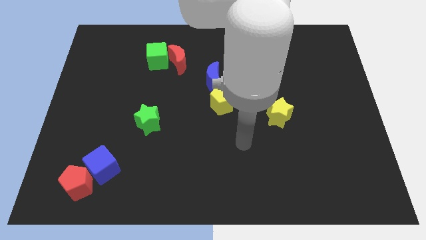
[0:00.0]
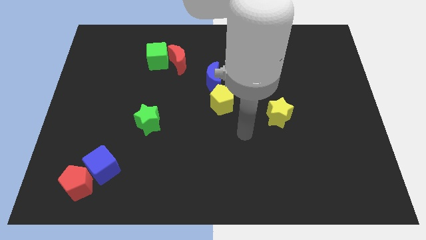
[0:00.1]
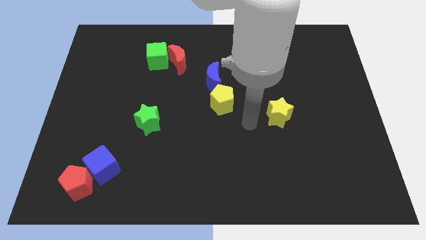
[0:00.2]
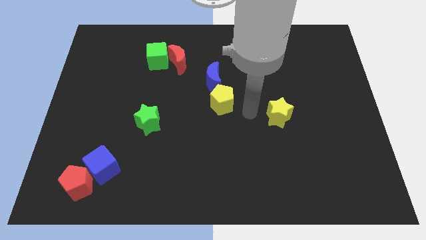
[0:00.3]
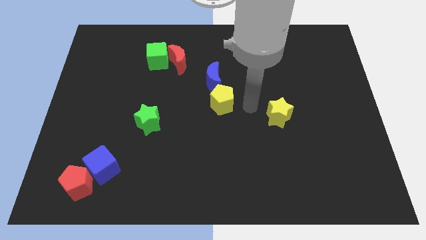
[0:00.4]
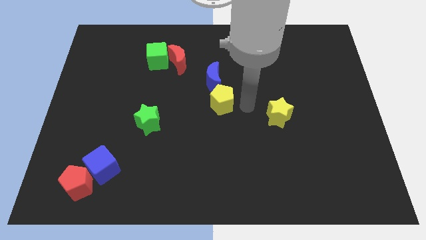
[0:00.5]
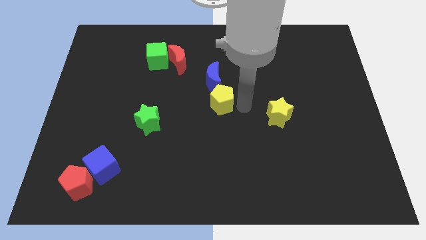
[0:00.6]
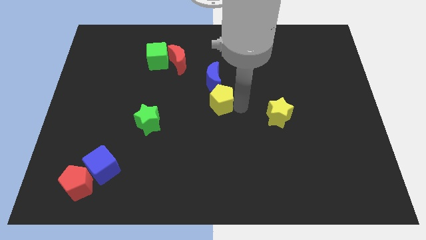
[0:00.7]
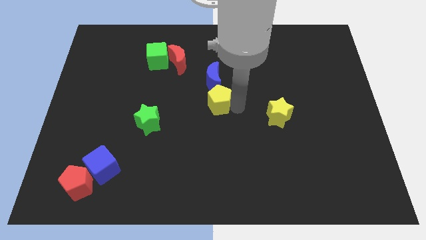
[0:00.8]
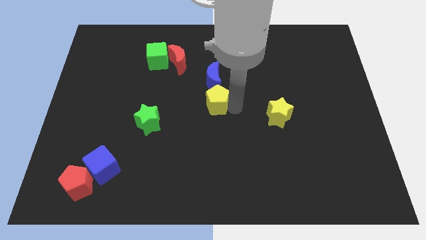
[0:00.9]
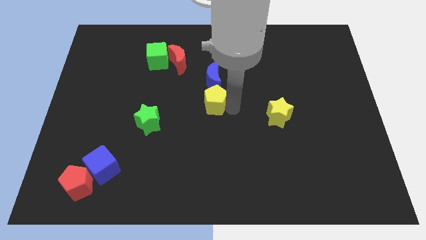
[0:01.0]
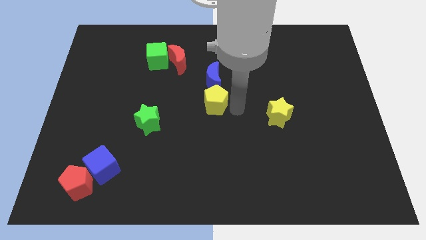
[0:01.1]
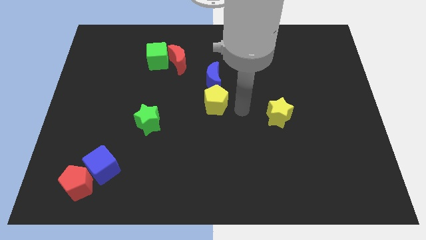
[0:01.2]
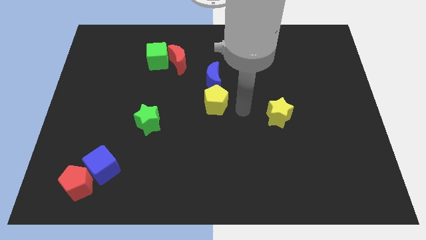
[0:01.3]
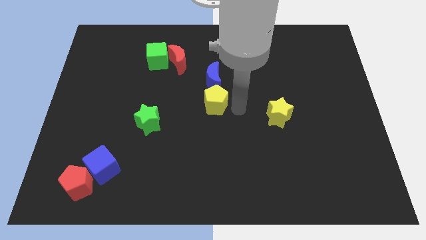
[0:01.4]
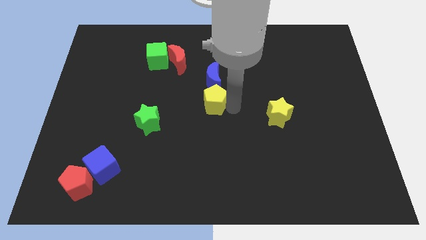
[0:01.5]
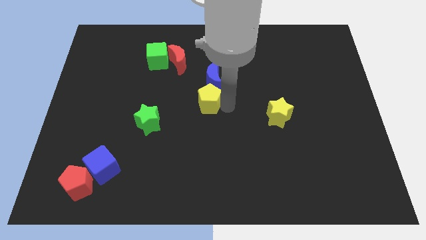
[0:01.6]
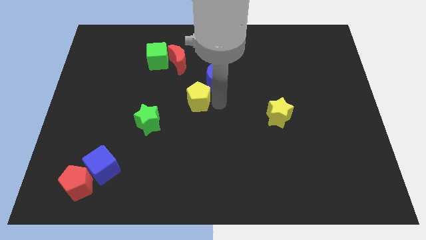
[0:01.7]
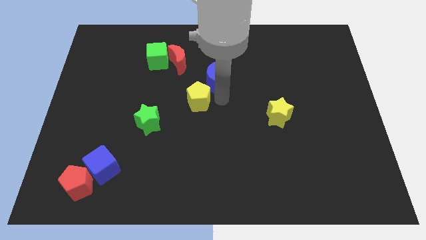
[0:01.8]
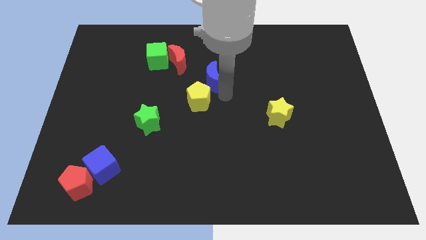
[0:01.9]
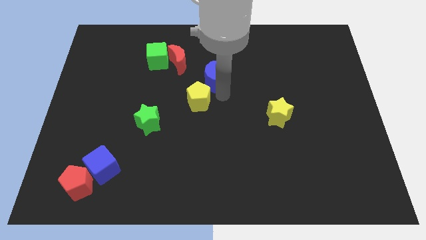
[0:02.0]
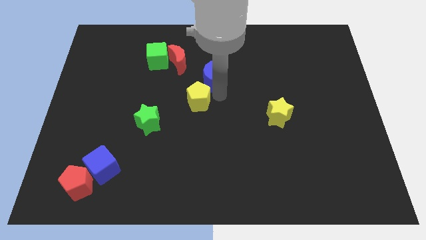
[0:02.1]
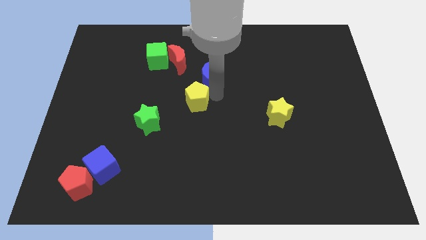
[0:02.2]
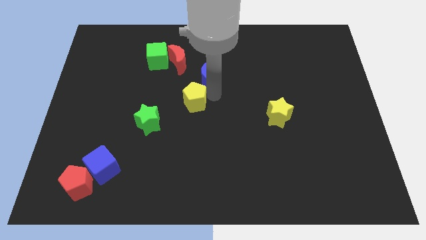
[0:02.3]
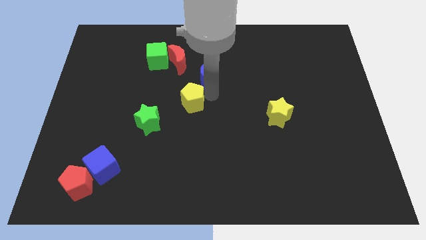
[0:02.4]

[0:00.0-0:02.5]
push the yellow pentagon somewhat left

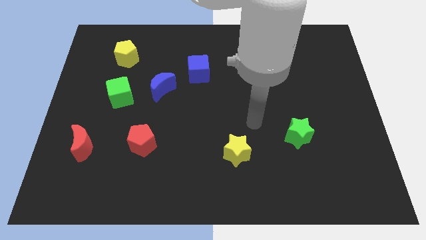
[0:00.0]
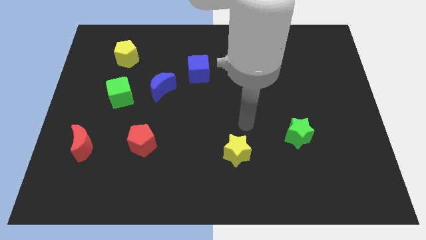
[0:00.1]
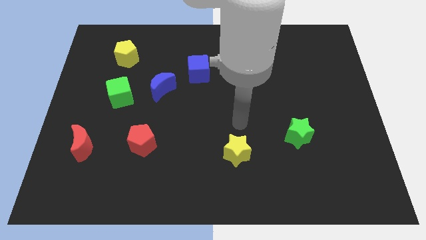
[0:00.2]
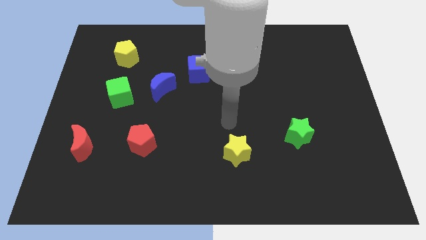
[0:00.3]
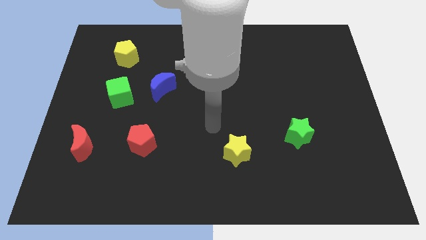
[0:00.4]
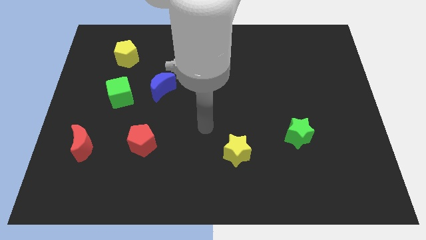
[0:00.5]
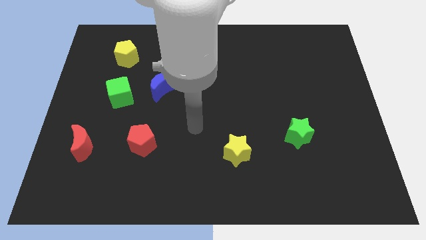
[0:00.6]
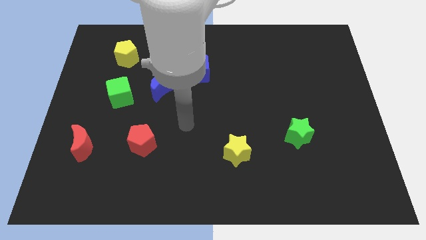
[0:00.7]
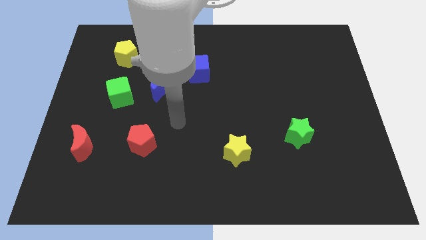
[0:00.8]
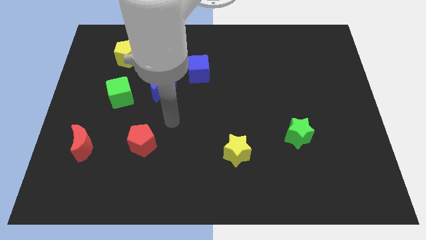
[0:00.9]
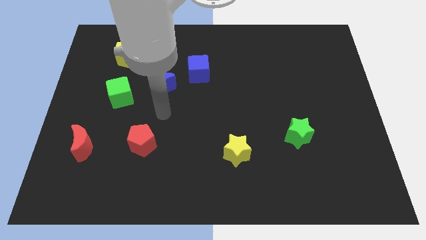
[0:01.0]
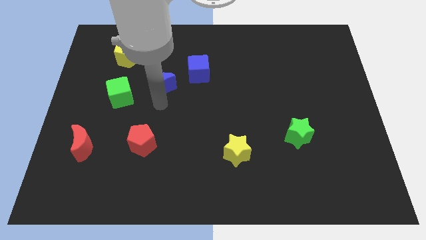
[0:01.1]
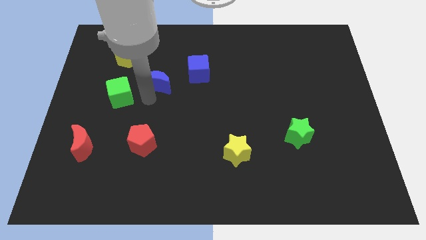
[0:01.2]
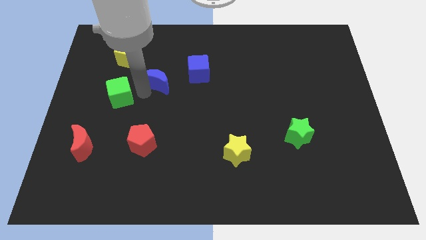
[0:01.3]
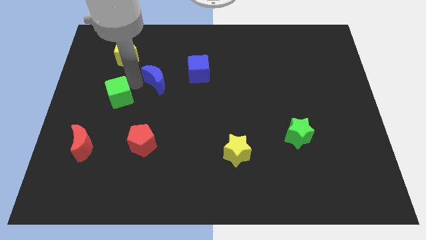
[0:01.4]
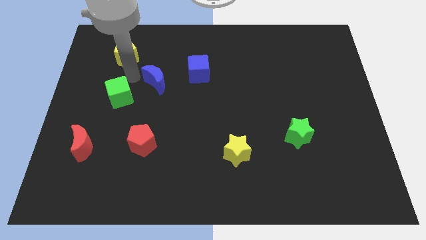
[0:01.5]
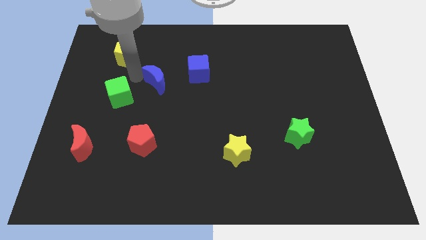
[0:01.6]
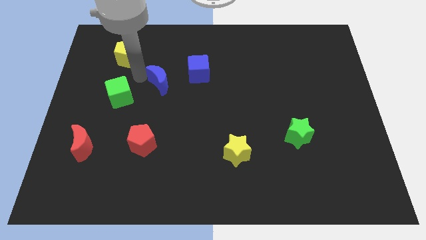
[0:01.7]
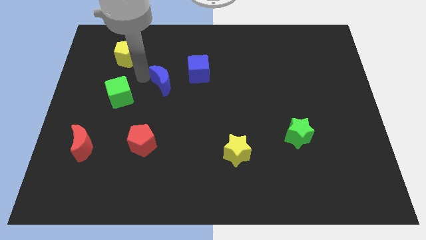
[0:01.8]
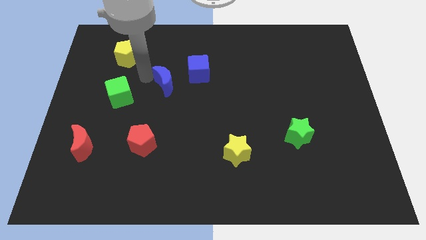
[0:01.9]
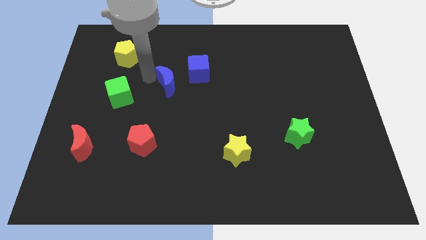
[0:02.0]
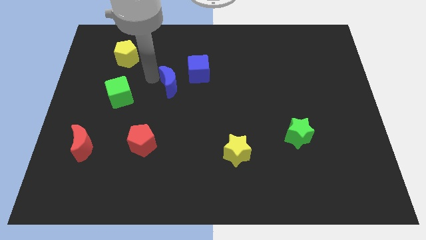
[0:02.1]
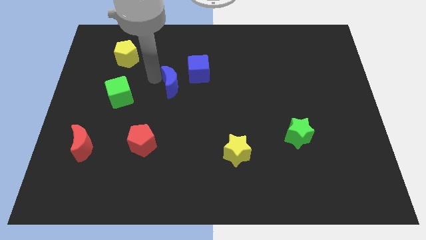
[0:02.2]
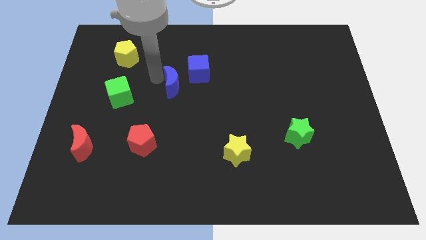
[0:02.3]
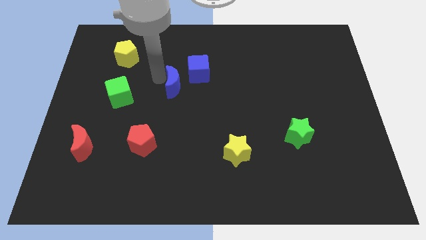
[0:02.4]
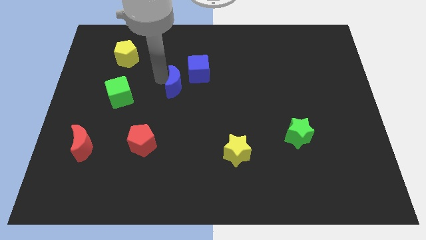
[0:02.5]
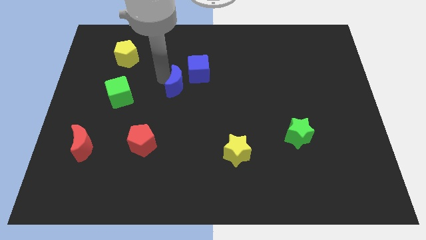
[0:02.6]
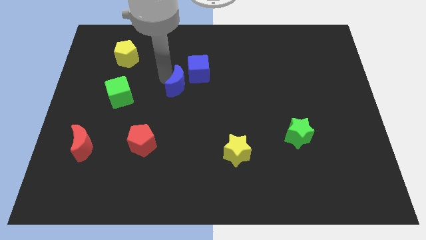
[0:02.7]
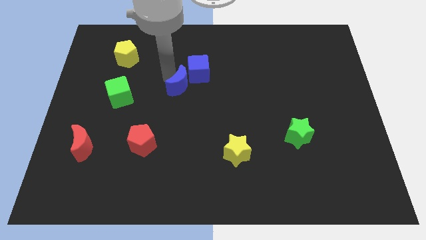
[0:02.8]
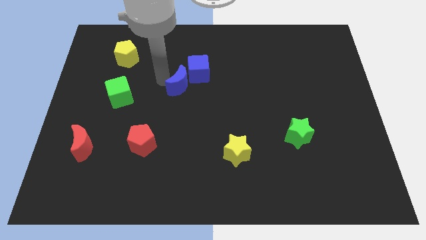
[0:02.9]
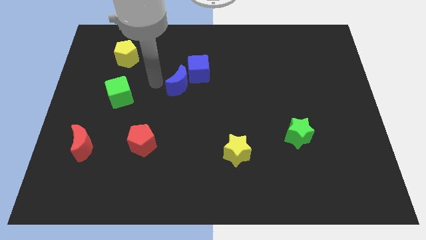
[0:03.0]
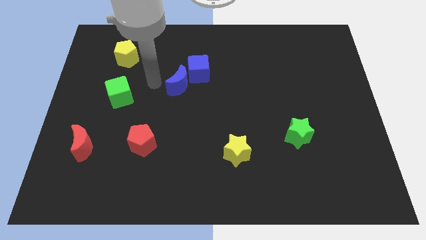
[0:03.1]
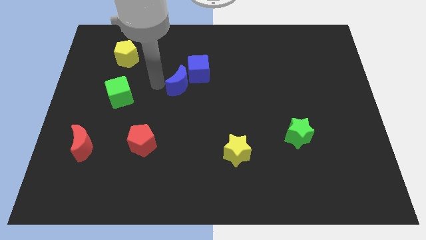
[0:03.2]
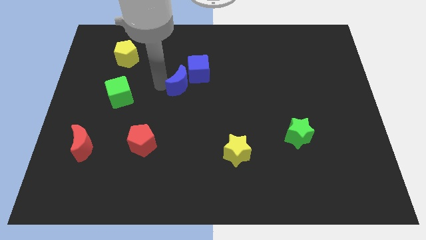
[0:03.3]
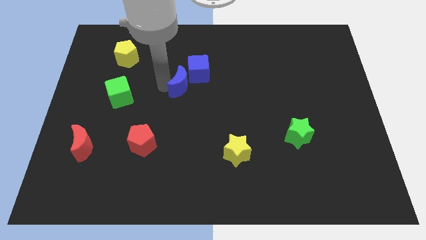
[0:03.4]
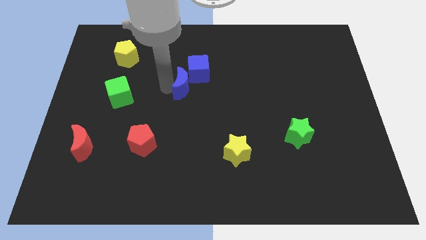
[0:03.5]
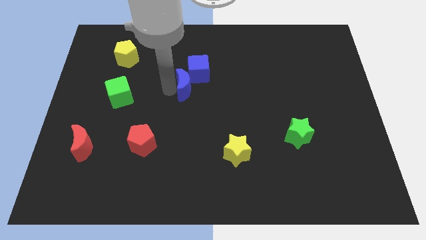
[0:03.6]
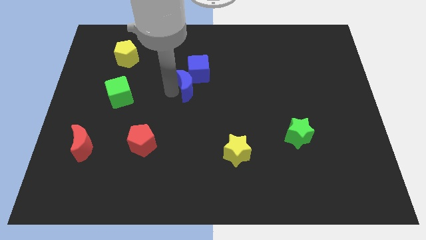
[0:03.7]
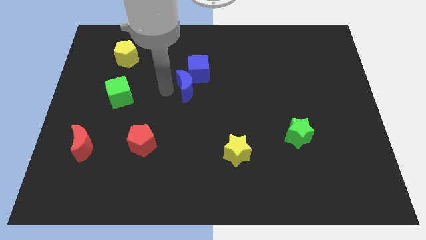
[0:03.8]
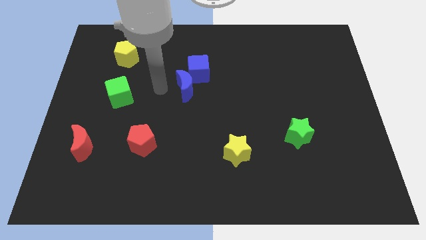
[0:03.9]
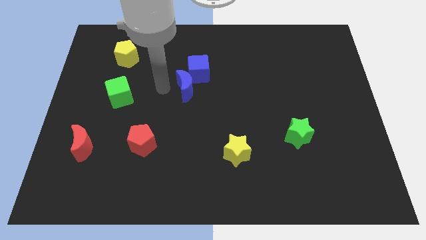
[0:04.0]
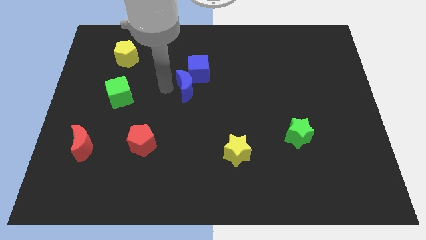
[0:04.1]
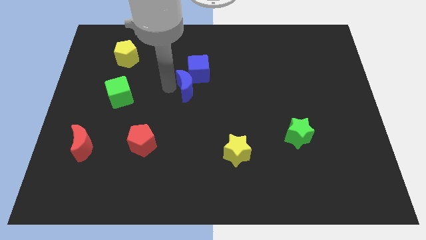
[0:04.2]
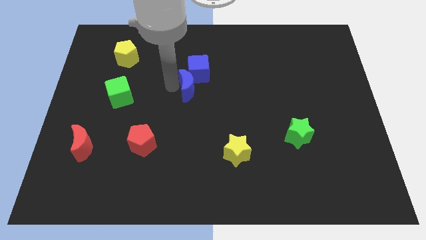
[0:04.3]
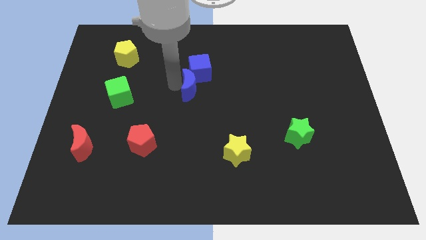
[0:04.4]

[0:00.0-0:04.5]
slightly move the blue moon right

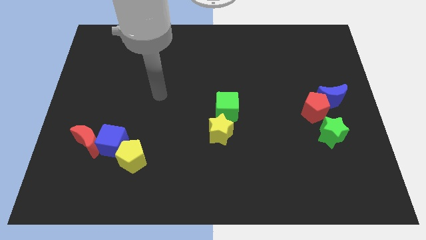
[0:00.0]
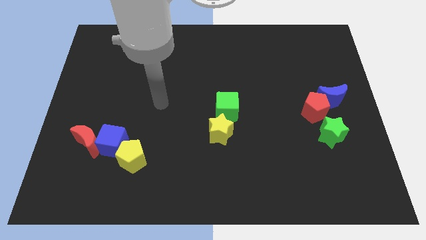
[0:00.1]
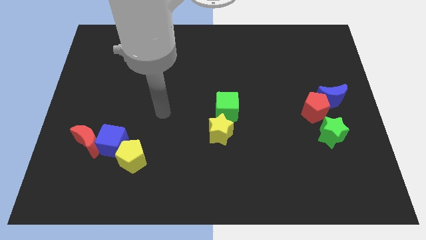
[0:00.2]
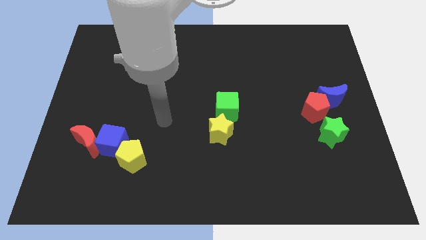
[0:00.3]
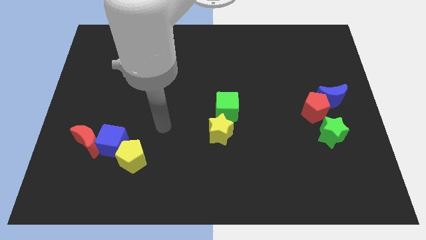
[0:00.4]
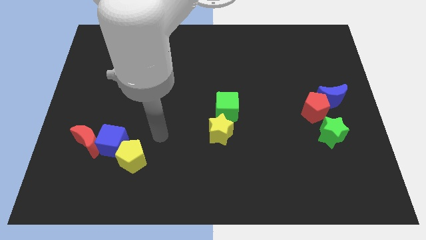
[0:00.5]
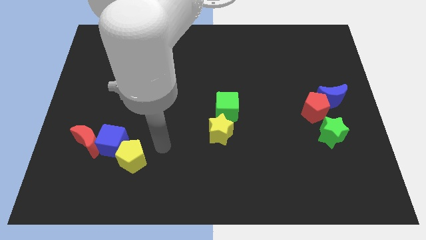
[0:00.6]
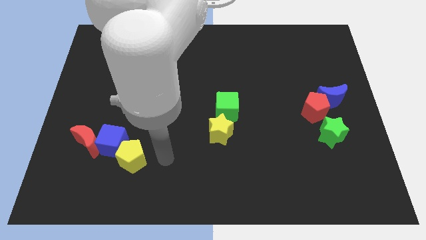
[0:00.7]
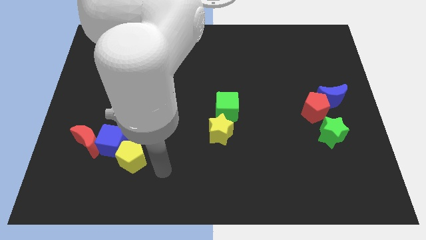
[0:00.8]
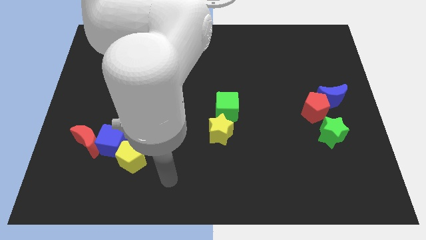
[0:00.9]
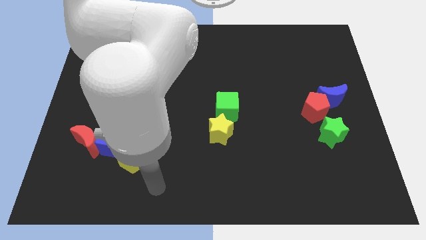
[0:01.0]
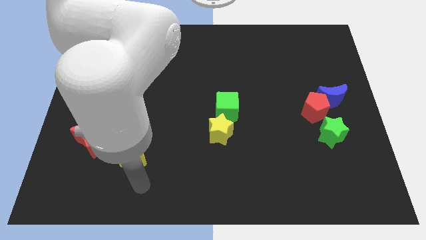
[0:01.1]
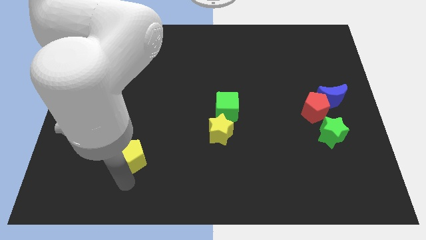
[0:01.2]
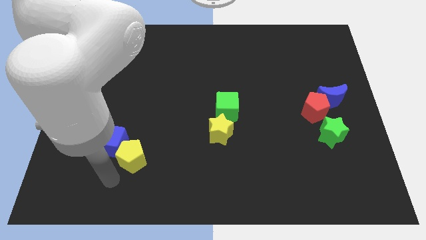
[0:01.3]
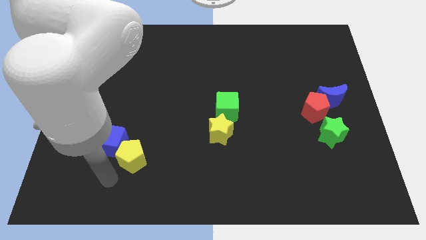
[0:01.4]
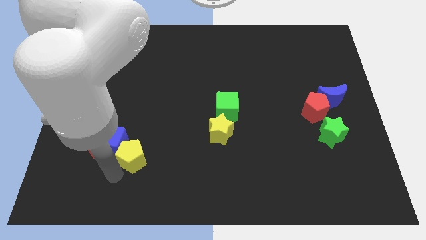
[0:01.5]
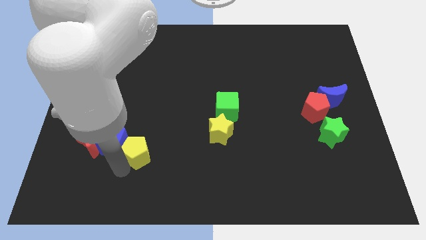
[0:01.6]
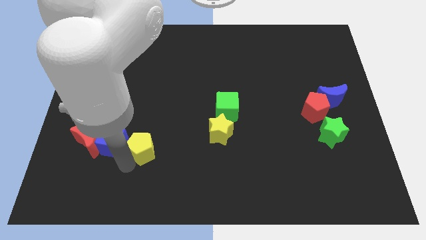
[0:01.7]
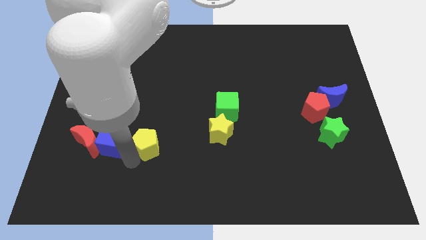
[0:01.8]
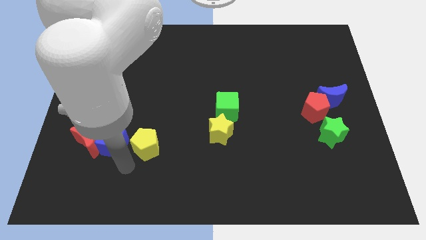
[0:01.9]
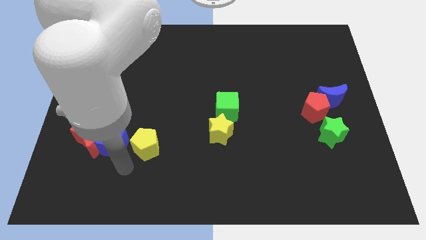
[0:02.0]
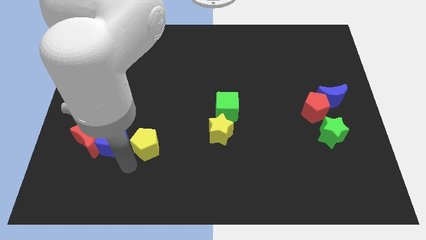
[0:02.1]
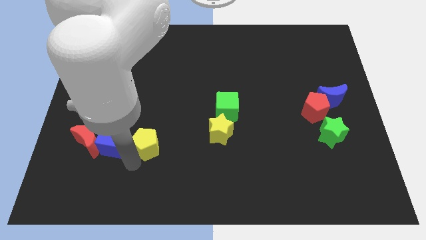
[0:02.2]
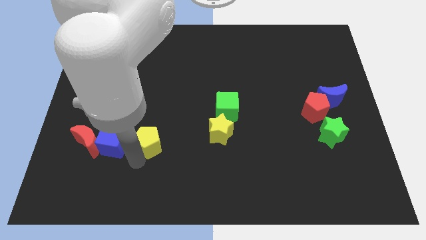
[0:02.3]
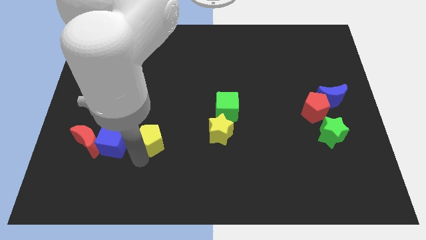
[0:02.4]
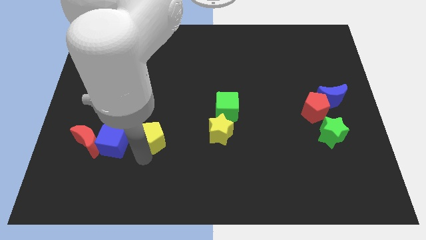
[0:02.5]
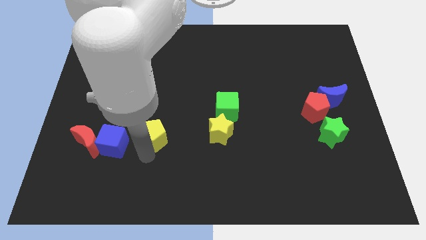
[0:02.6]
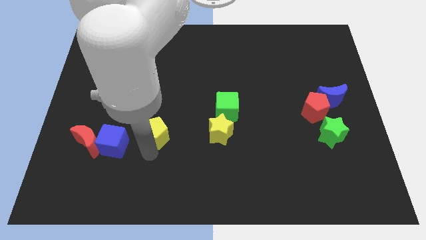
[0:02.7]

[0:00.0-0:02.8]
slightly push the yellow pentagon upwards and to the right diagonally
